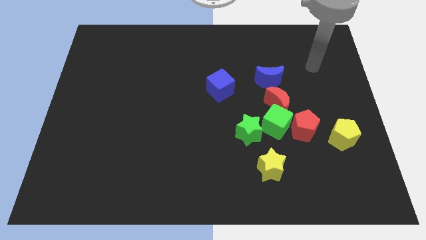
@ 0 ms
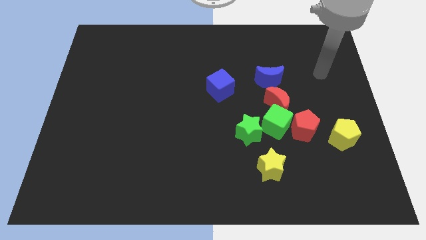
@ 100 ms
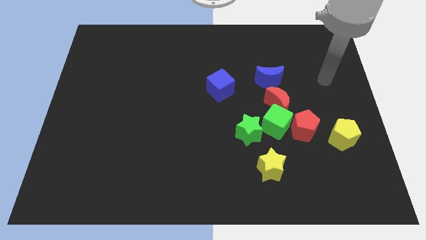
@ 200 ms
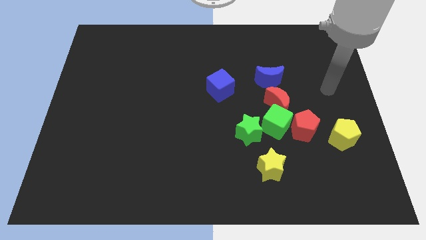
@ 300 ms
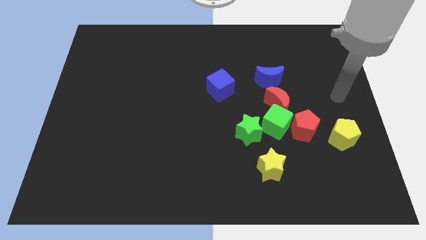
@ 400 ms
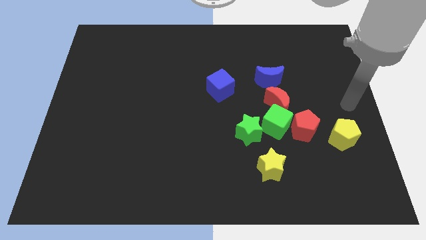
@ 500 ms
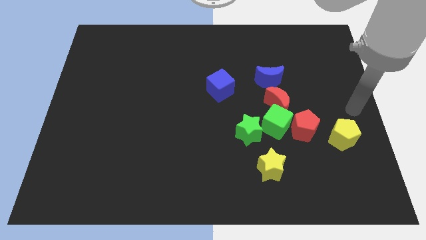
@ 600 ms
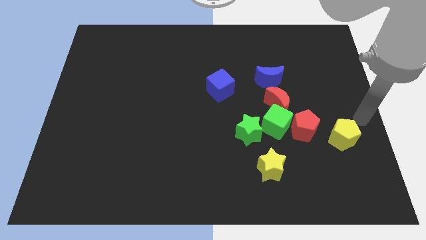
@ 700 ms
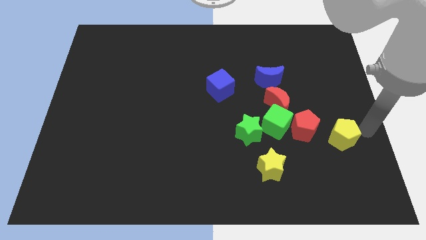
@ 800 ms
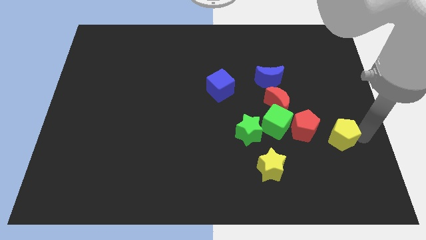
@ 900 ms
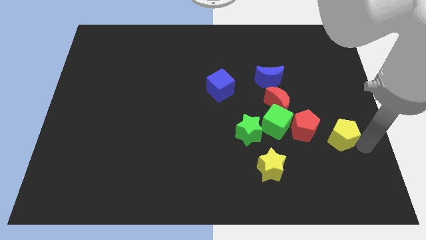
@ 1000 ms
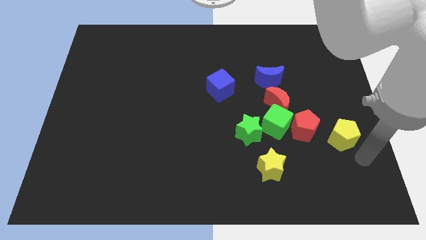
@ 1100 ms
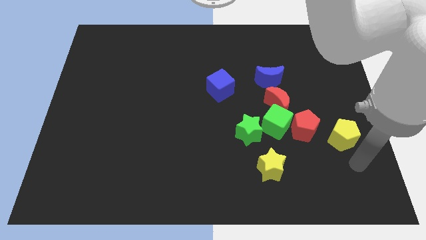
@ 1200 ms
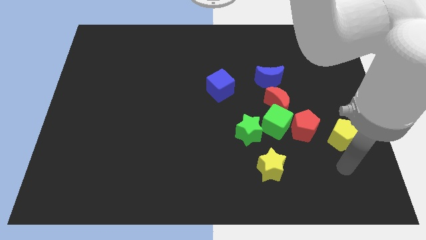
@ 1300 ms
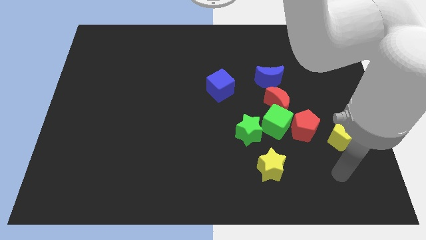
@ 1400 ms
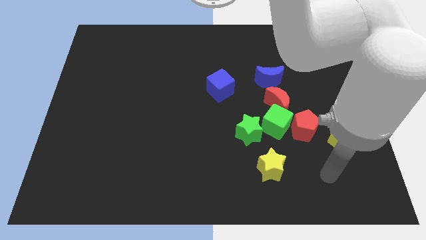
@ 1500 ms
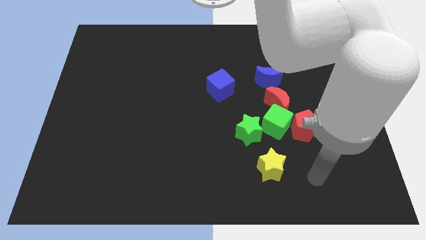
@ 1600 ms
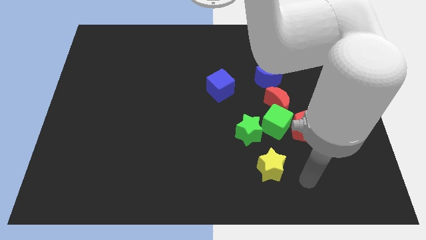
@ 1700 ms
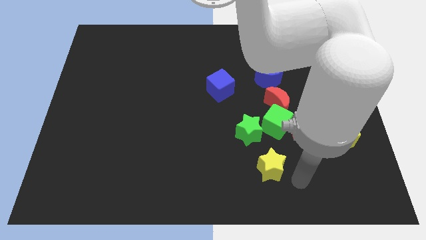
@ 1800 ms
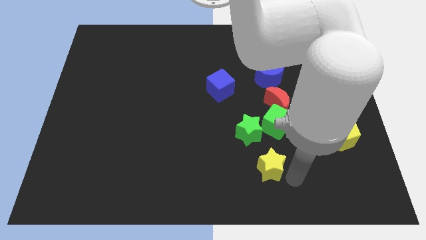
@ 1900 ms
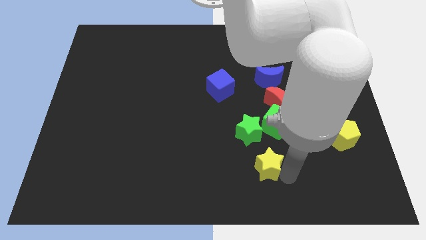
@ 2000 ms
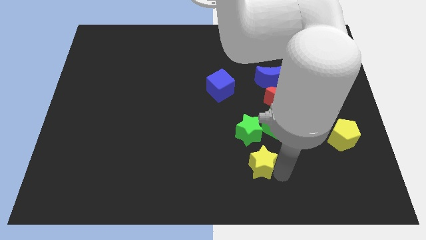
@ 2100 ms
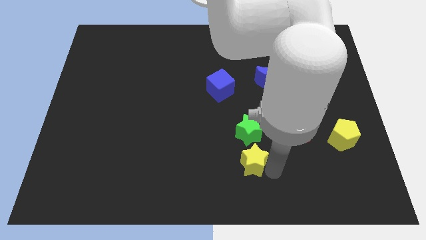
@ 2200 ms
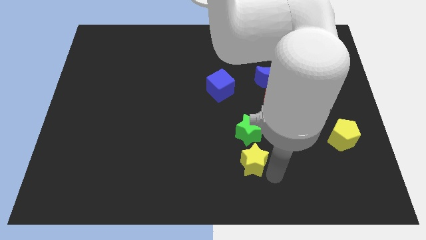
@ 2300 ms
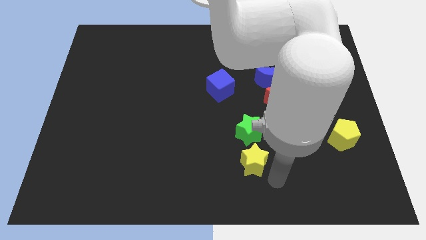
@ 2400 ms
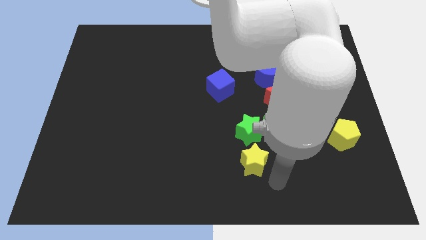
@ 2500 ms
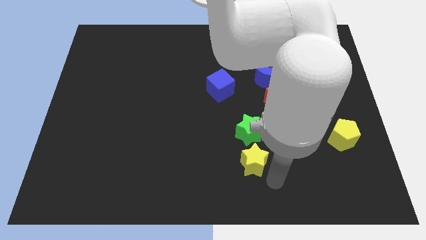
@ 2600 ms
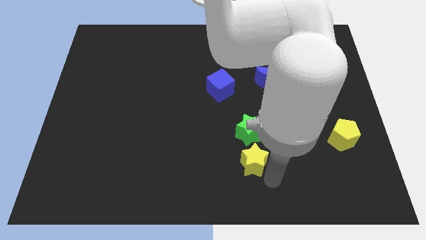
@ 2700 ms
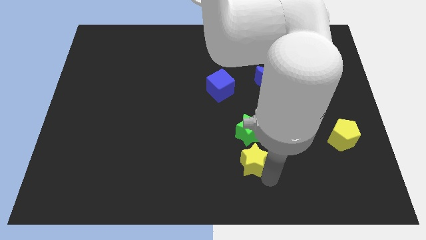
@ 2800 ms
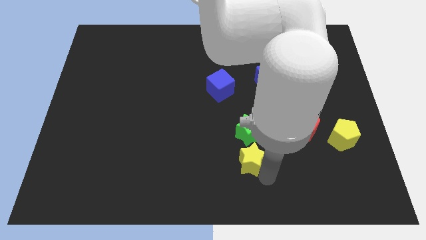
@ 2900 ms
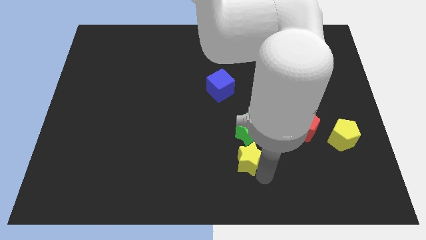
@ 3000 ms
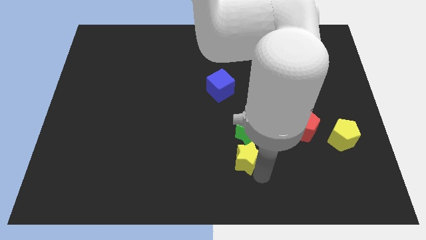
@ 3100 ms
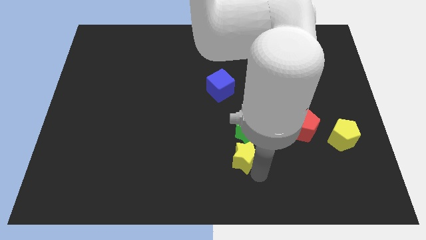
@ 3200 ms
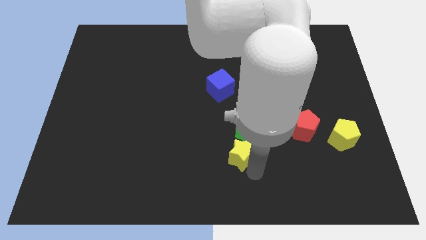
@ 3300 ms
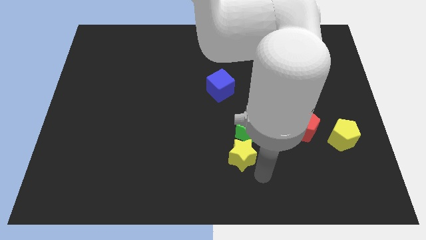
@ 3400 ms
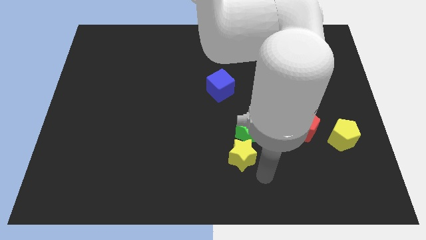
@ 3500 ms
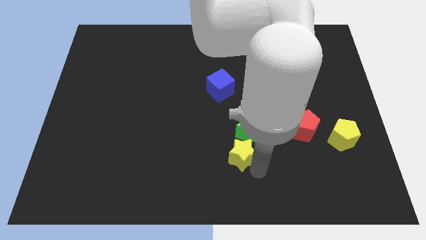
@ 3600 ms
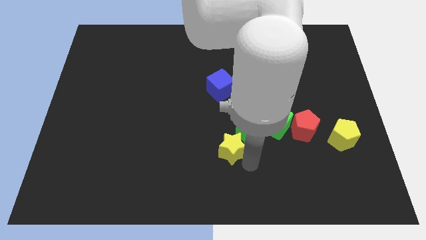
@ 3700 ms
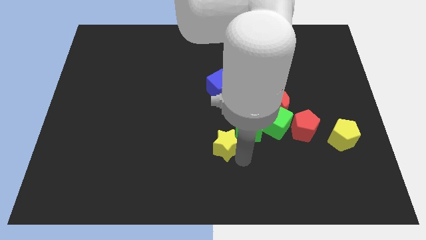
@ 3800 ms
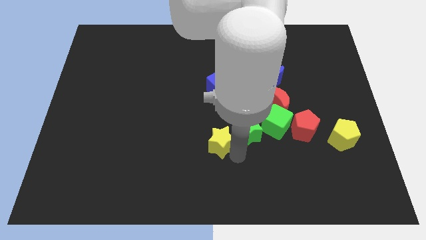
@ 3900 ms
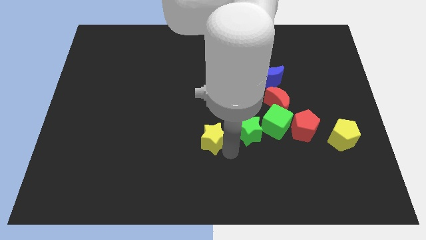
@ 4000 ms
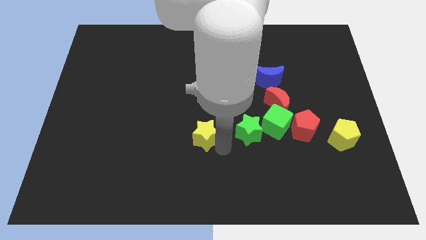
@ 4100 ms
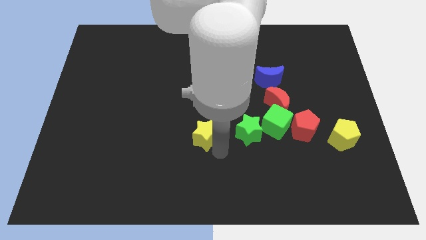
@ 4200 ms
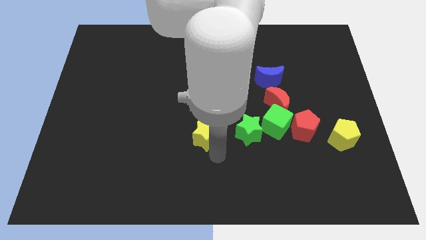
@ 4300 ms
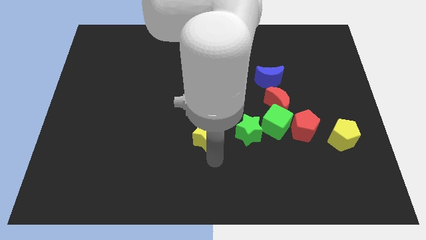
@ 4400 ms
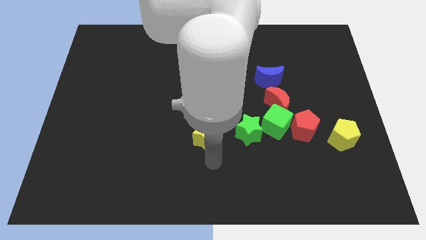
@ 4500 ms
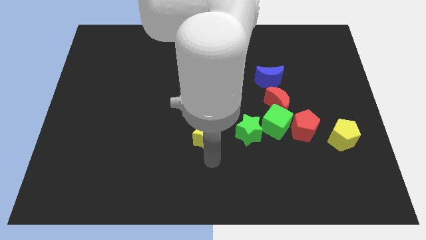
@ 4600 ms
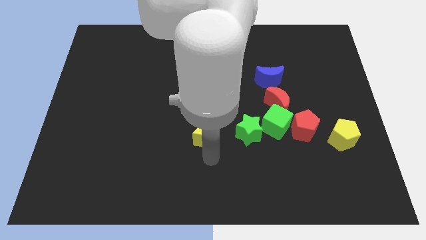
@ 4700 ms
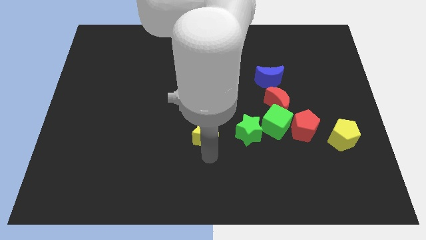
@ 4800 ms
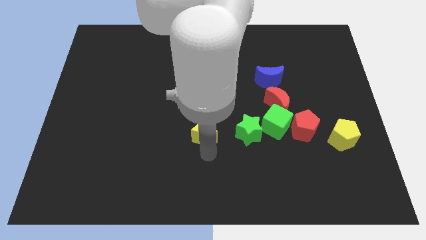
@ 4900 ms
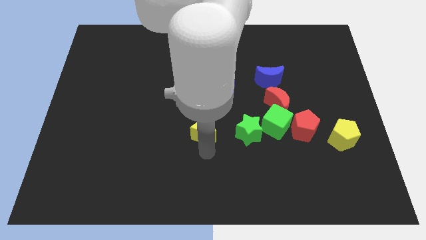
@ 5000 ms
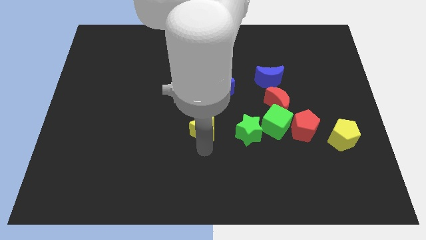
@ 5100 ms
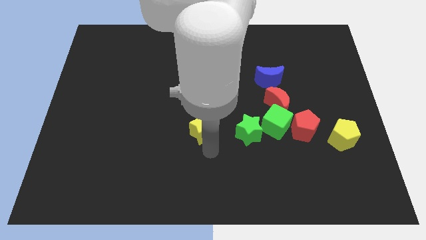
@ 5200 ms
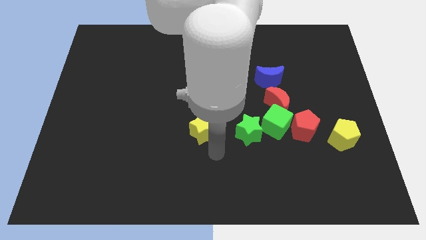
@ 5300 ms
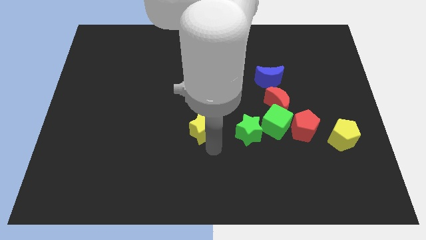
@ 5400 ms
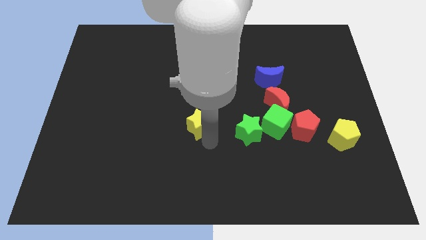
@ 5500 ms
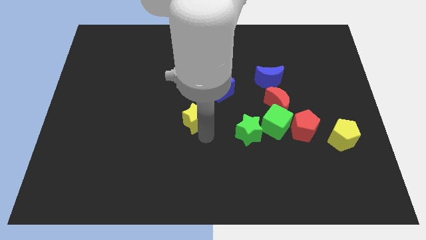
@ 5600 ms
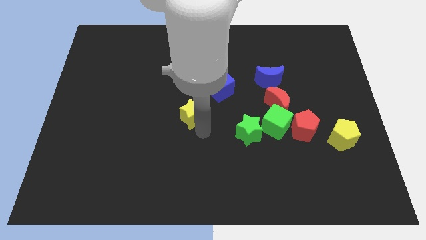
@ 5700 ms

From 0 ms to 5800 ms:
move the yellow star up and then to the left

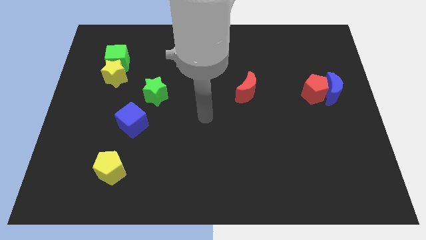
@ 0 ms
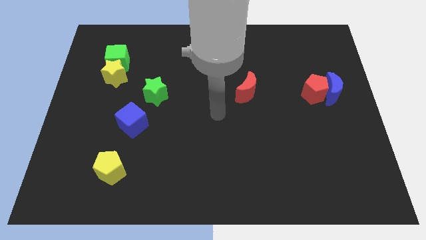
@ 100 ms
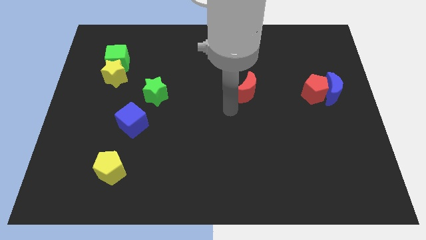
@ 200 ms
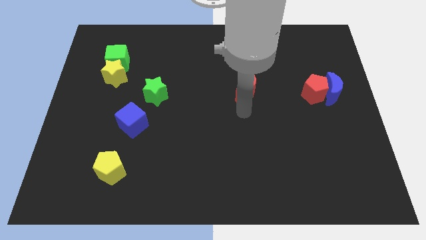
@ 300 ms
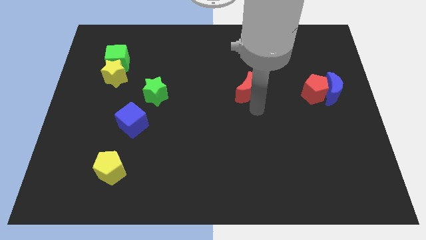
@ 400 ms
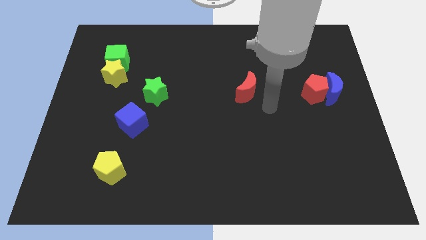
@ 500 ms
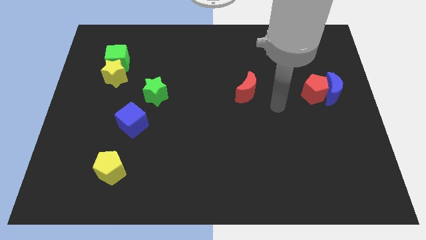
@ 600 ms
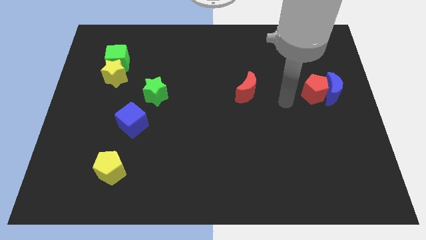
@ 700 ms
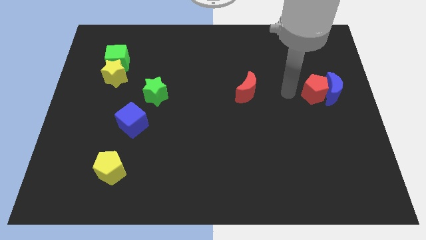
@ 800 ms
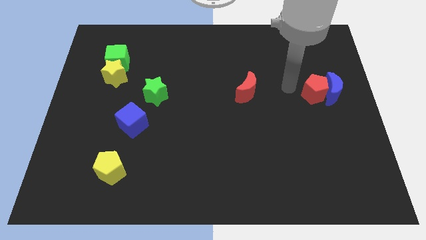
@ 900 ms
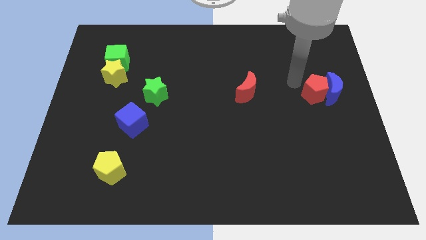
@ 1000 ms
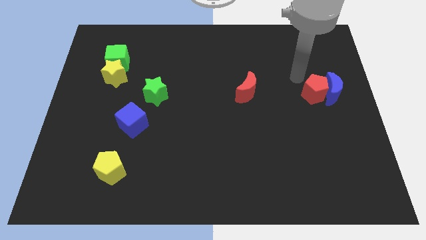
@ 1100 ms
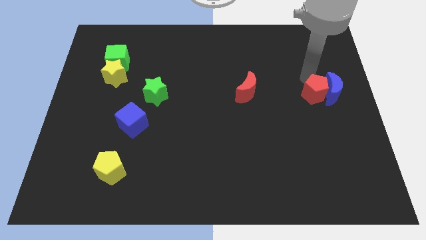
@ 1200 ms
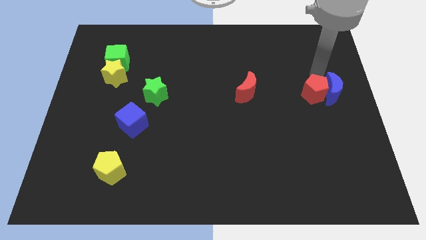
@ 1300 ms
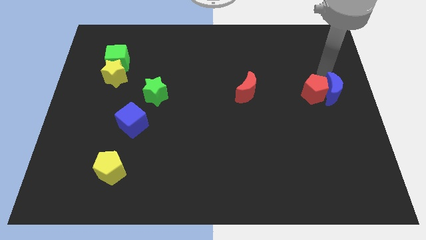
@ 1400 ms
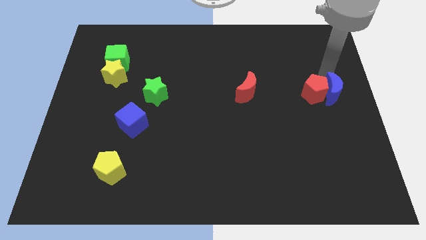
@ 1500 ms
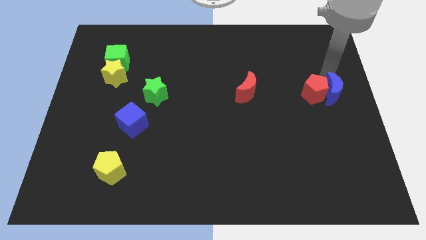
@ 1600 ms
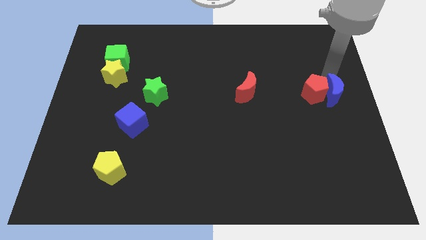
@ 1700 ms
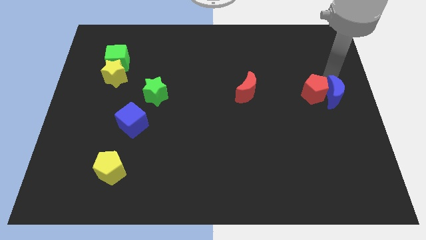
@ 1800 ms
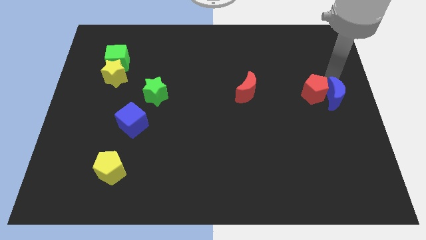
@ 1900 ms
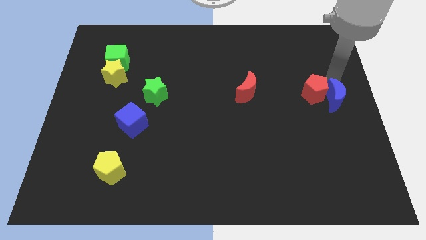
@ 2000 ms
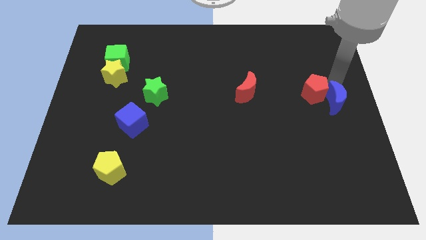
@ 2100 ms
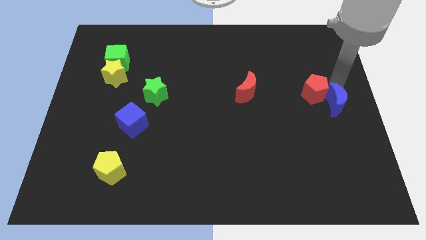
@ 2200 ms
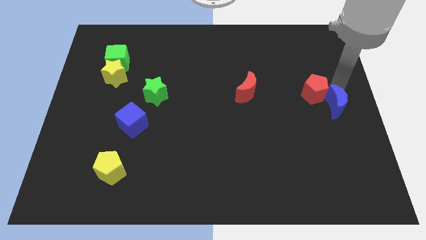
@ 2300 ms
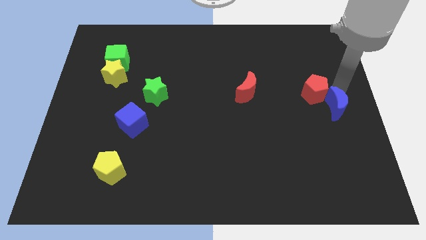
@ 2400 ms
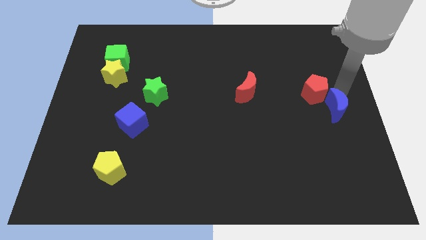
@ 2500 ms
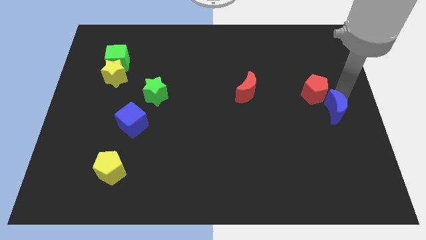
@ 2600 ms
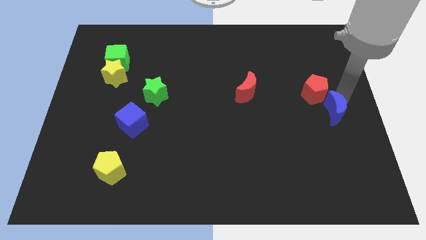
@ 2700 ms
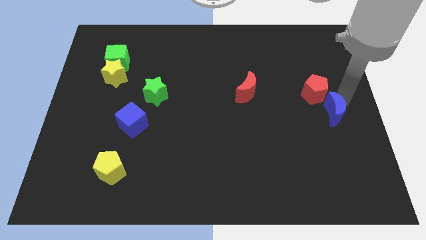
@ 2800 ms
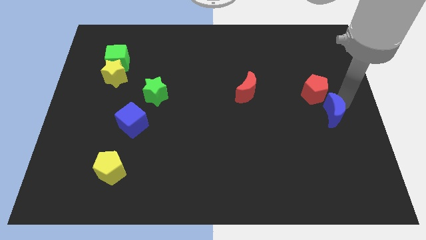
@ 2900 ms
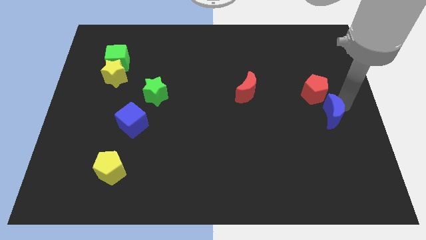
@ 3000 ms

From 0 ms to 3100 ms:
slide the blue moon downwards a bit
